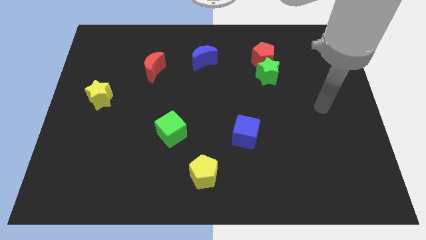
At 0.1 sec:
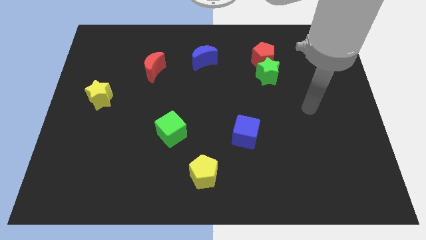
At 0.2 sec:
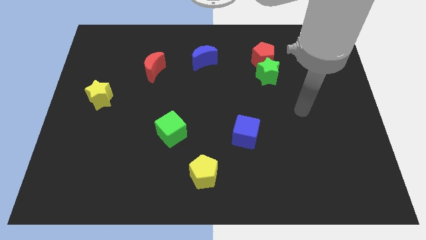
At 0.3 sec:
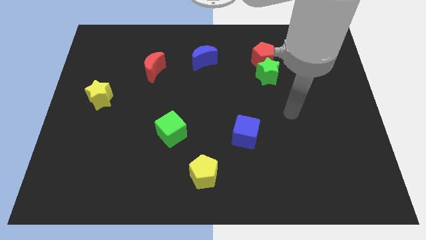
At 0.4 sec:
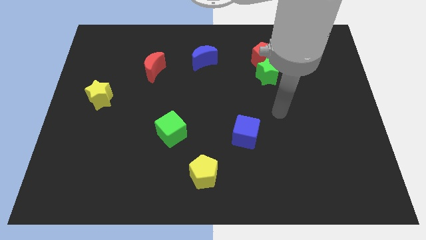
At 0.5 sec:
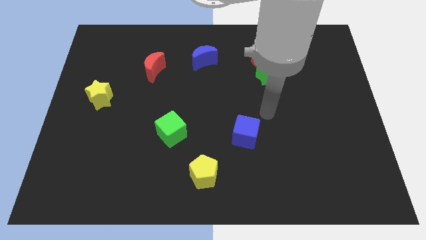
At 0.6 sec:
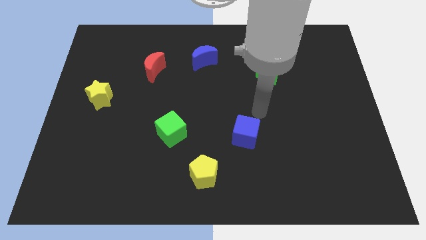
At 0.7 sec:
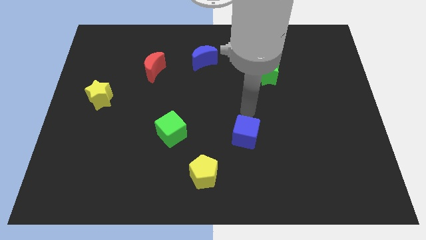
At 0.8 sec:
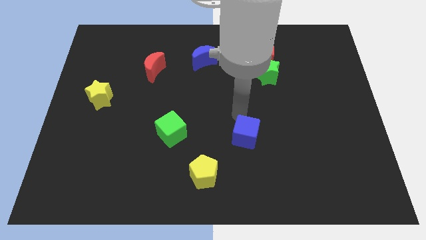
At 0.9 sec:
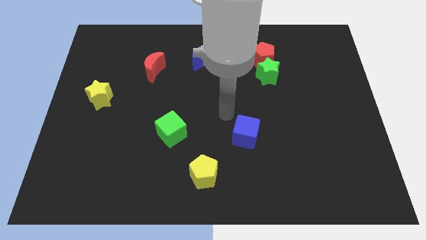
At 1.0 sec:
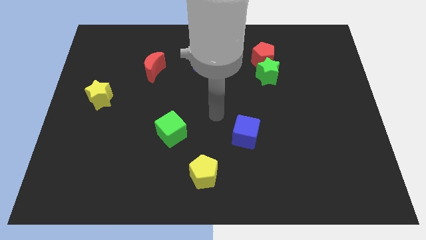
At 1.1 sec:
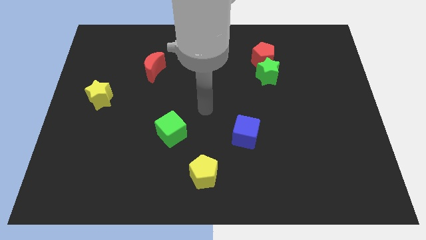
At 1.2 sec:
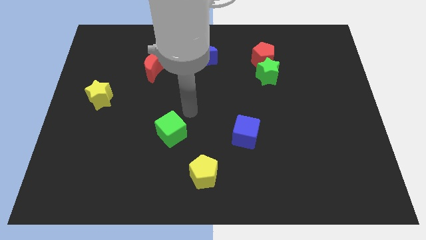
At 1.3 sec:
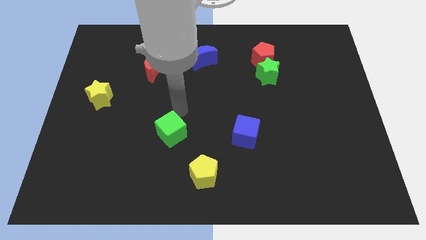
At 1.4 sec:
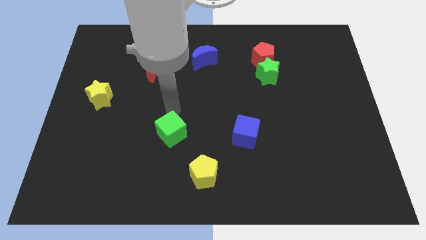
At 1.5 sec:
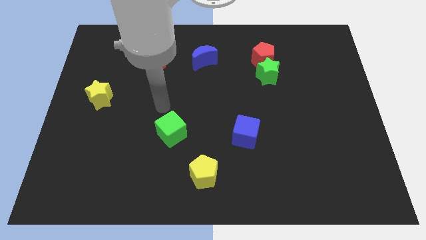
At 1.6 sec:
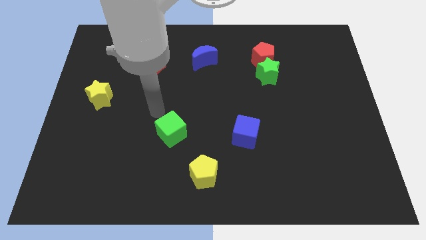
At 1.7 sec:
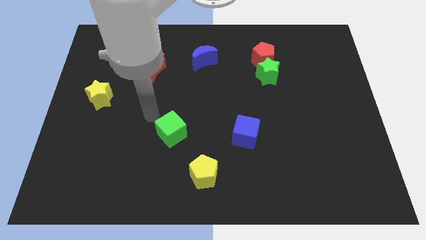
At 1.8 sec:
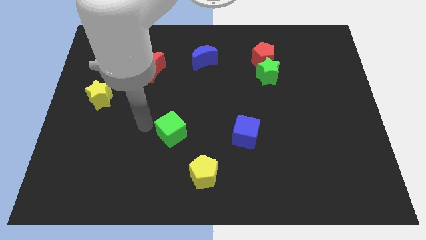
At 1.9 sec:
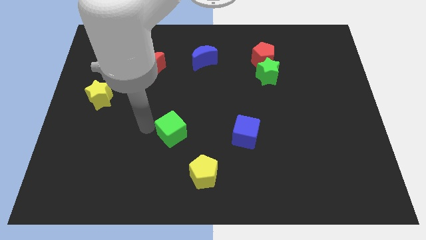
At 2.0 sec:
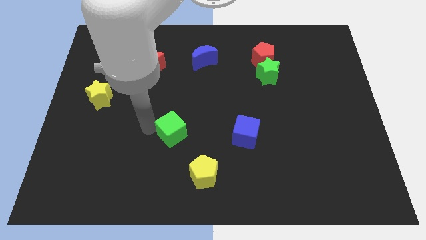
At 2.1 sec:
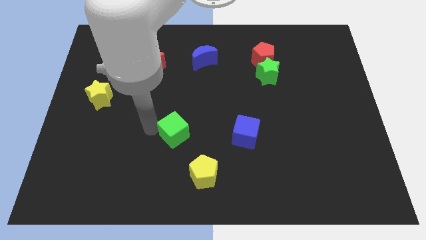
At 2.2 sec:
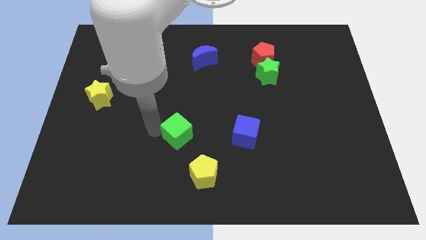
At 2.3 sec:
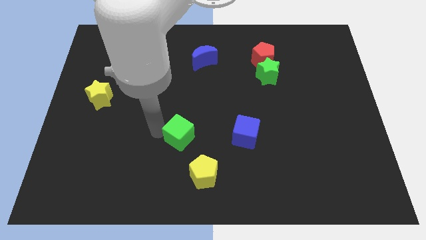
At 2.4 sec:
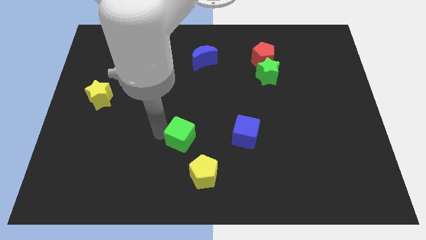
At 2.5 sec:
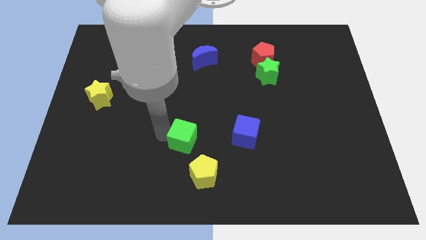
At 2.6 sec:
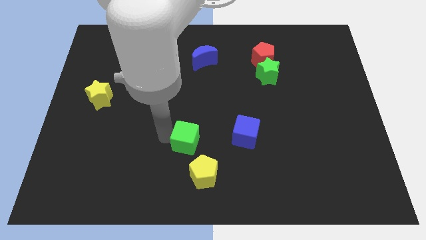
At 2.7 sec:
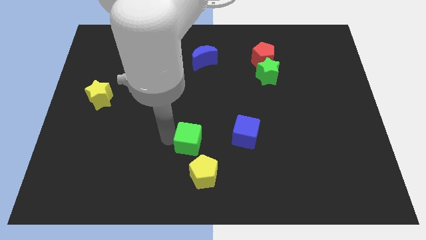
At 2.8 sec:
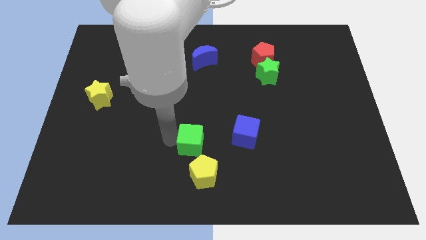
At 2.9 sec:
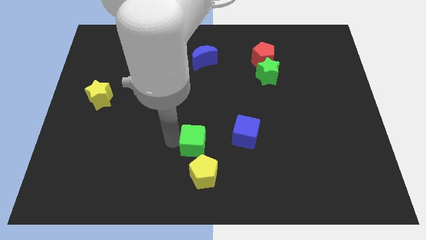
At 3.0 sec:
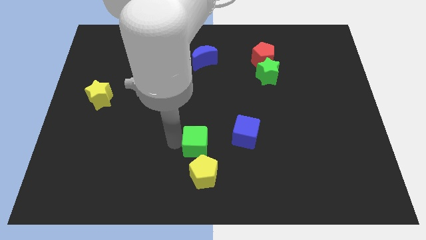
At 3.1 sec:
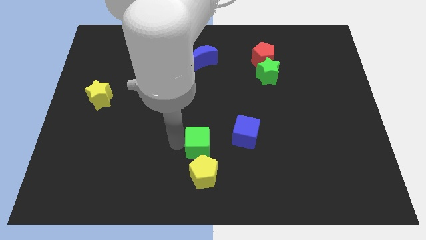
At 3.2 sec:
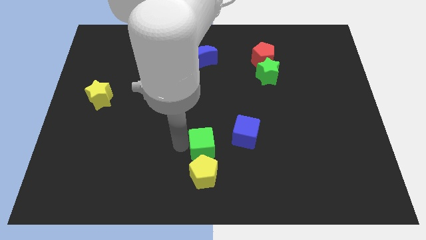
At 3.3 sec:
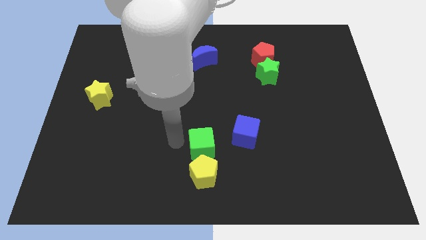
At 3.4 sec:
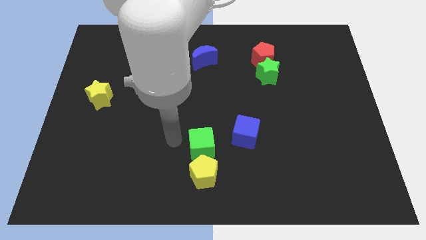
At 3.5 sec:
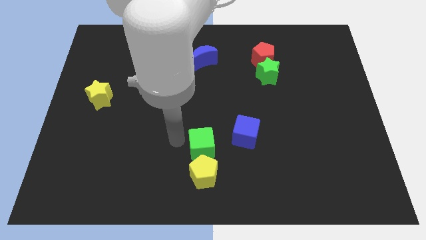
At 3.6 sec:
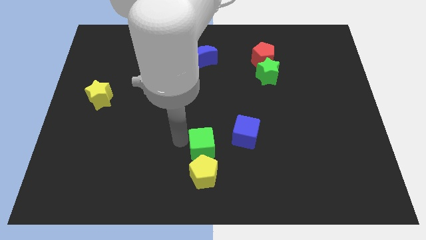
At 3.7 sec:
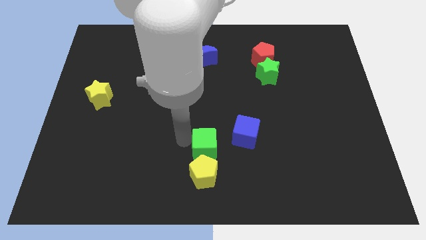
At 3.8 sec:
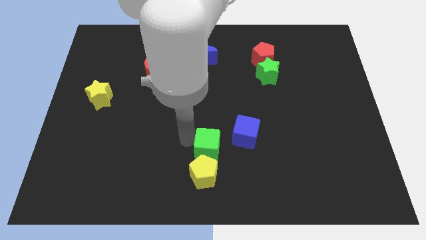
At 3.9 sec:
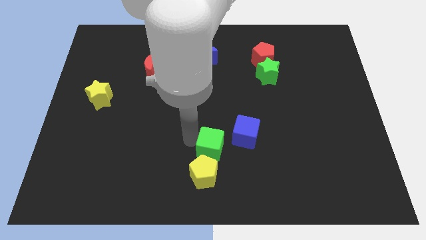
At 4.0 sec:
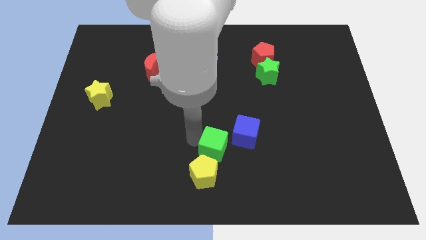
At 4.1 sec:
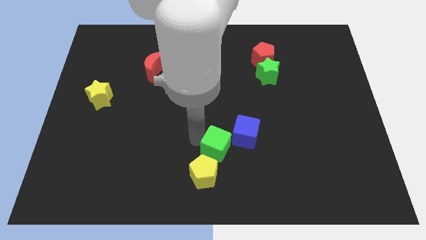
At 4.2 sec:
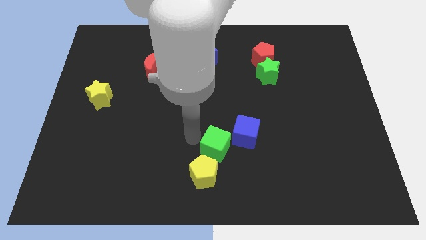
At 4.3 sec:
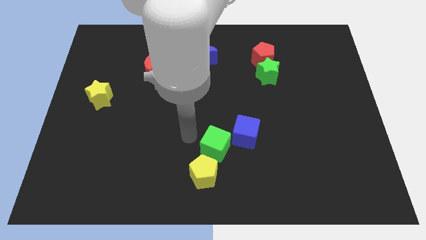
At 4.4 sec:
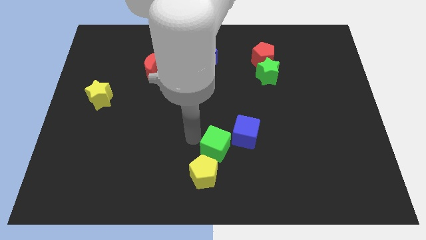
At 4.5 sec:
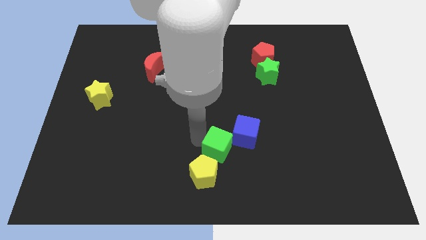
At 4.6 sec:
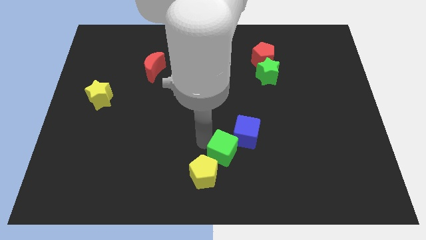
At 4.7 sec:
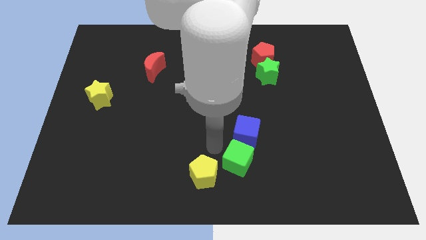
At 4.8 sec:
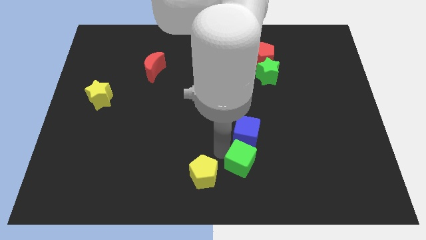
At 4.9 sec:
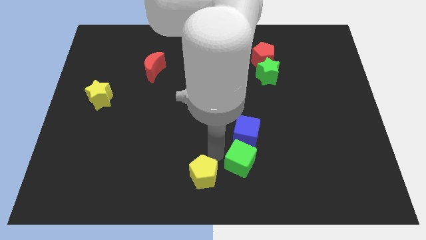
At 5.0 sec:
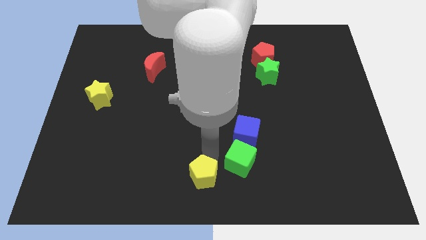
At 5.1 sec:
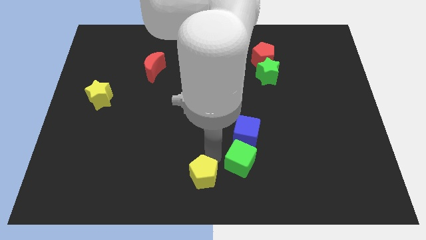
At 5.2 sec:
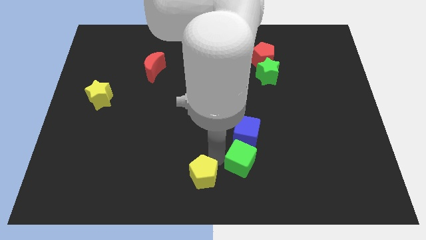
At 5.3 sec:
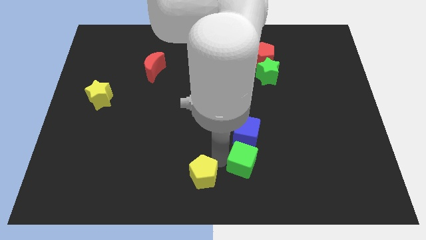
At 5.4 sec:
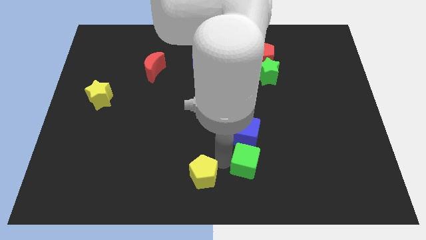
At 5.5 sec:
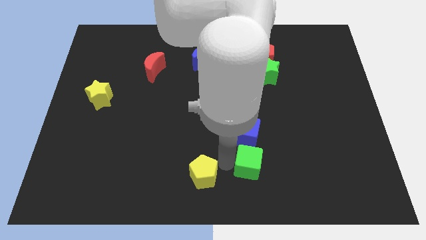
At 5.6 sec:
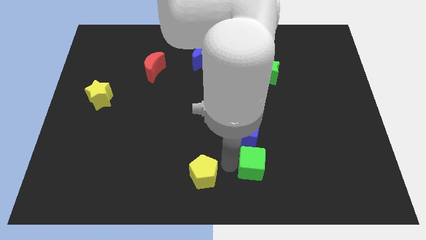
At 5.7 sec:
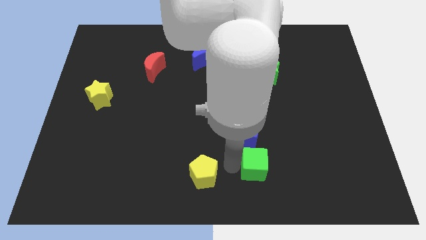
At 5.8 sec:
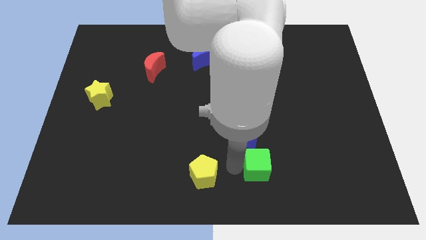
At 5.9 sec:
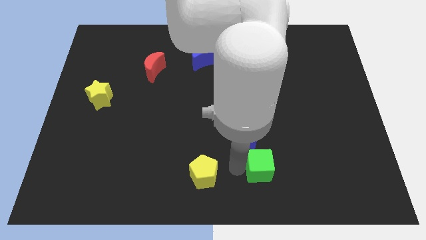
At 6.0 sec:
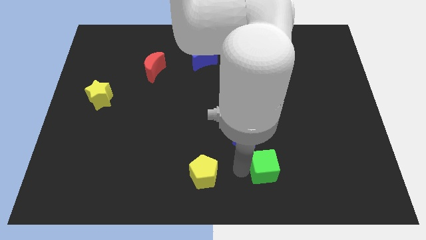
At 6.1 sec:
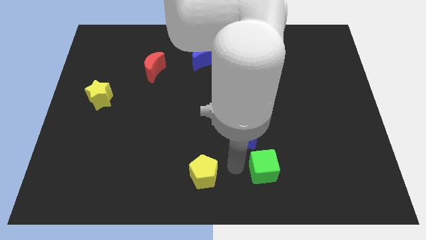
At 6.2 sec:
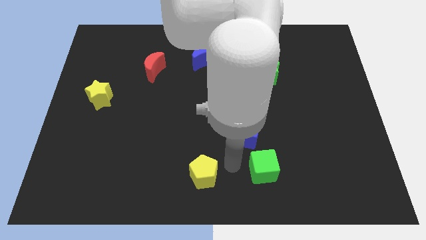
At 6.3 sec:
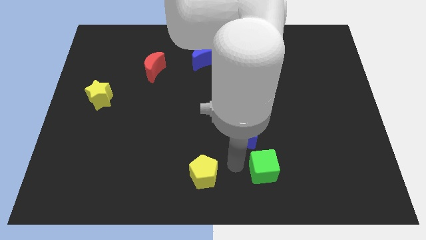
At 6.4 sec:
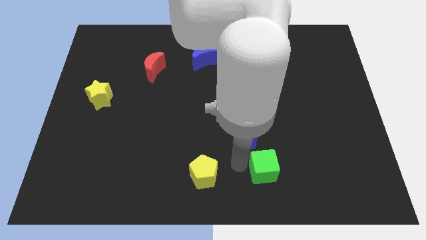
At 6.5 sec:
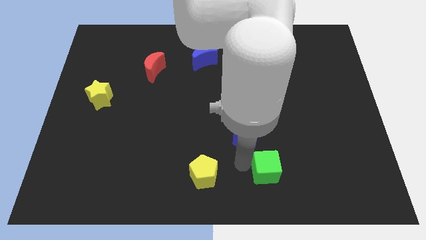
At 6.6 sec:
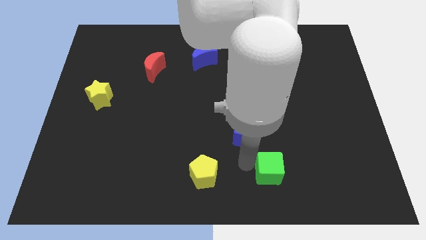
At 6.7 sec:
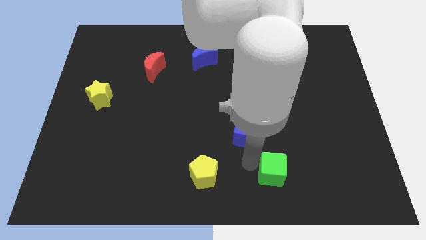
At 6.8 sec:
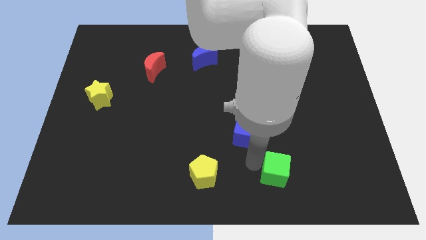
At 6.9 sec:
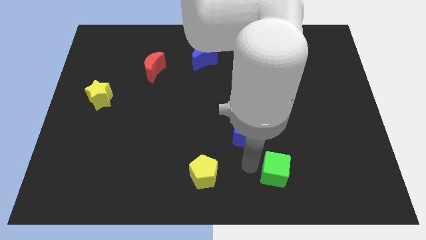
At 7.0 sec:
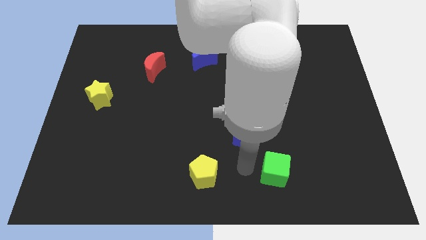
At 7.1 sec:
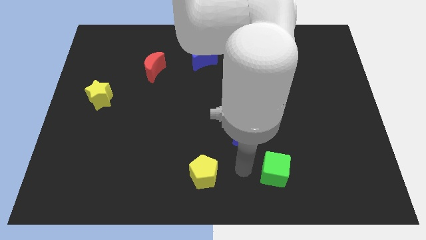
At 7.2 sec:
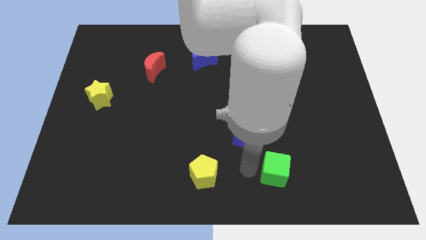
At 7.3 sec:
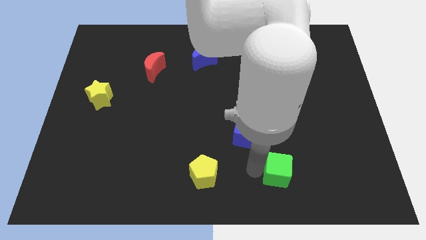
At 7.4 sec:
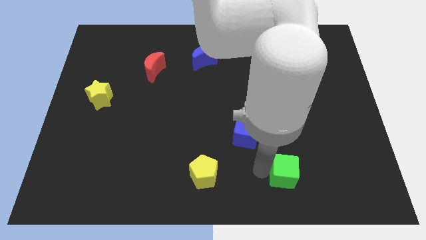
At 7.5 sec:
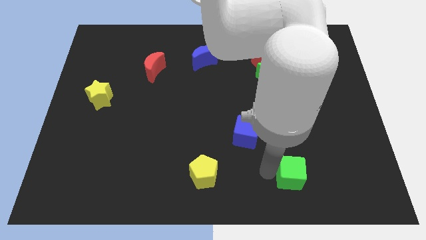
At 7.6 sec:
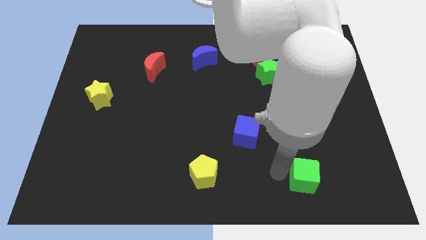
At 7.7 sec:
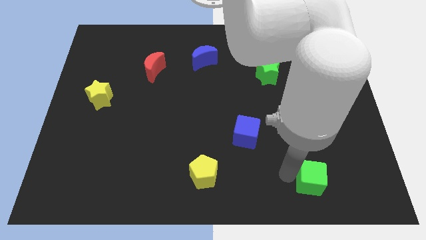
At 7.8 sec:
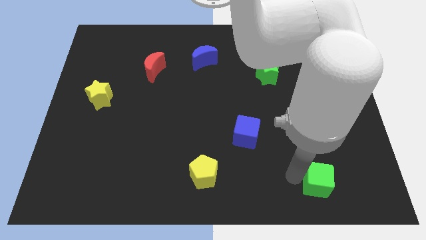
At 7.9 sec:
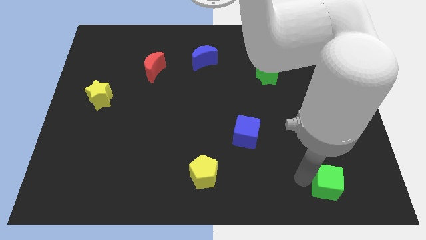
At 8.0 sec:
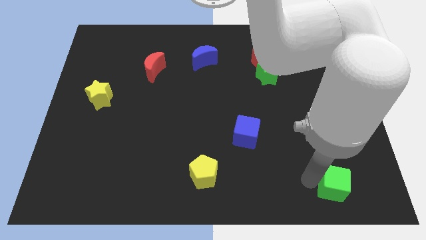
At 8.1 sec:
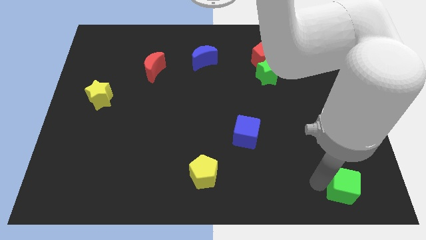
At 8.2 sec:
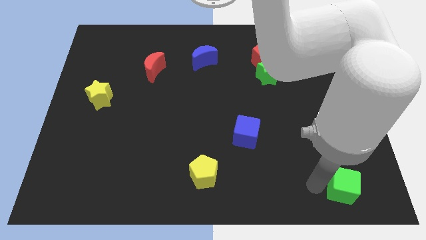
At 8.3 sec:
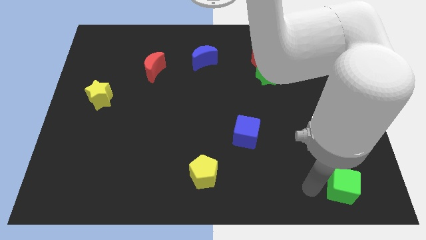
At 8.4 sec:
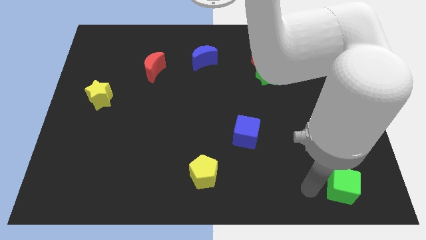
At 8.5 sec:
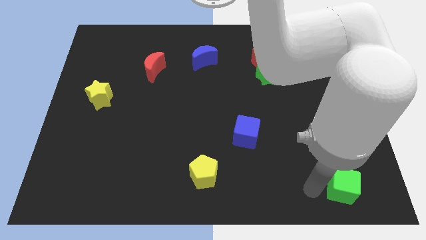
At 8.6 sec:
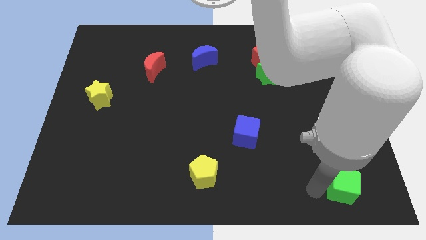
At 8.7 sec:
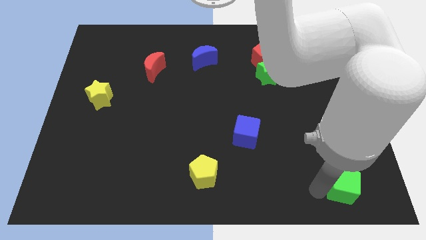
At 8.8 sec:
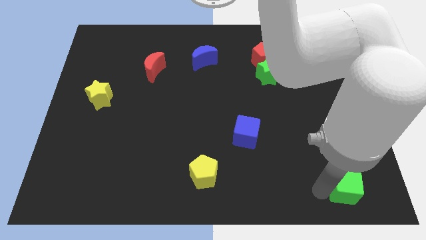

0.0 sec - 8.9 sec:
move the green cube to the lower right corner
